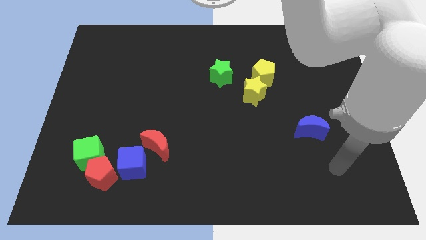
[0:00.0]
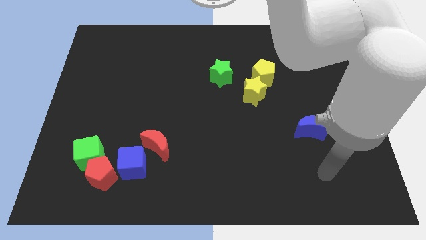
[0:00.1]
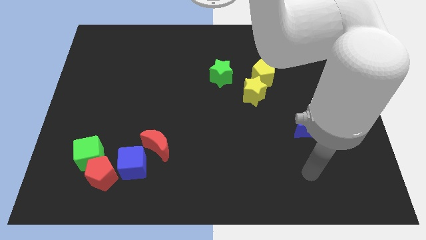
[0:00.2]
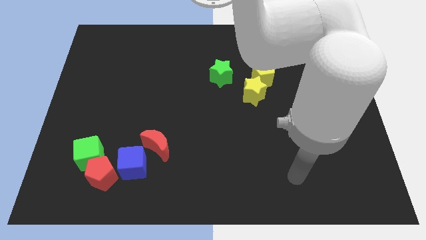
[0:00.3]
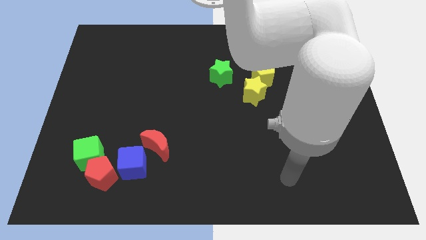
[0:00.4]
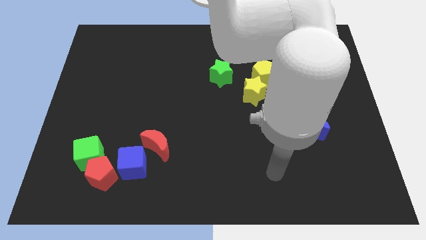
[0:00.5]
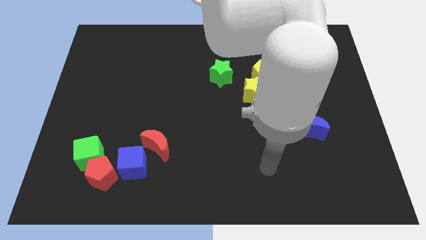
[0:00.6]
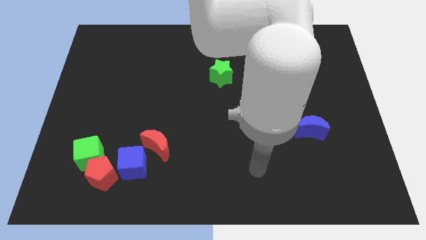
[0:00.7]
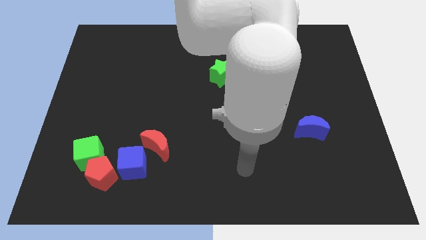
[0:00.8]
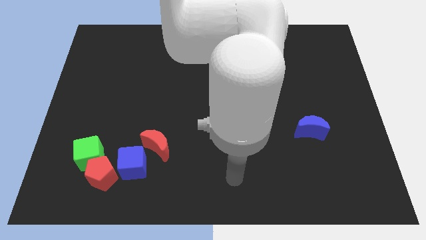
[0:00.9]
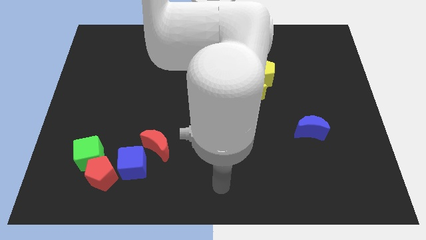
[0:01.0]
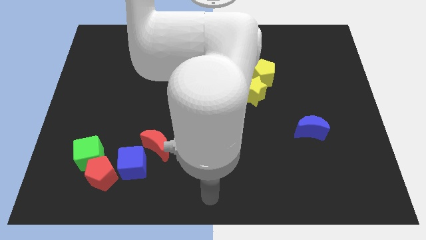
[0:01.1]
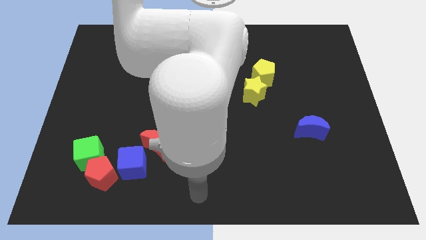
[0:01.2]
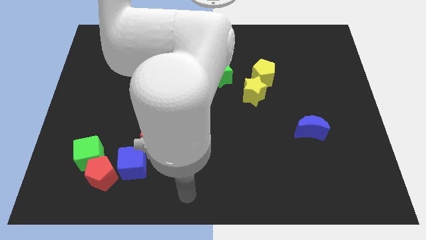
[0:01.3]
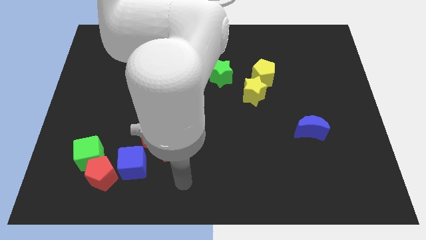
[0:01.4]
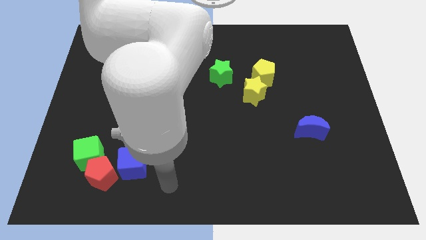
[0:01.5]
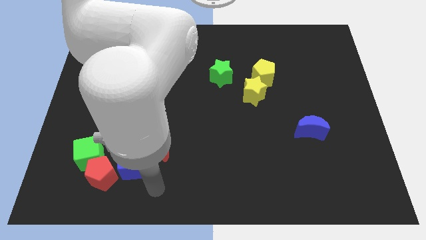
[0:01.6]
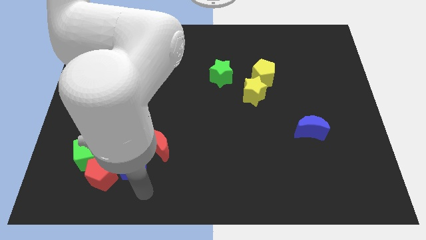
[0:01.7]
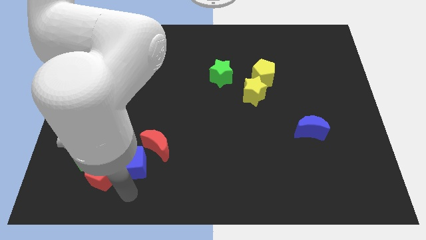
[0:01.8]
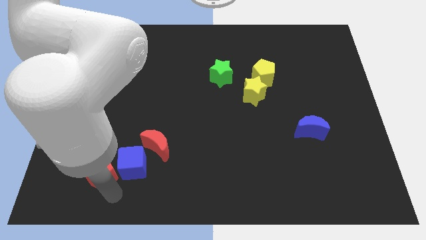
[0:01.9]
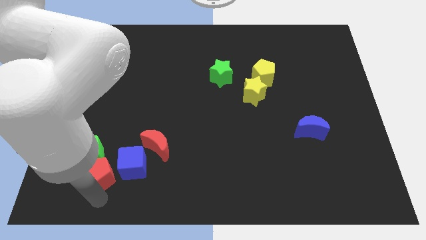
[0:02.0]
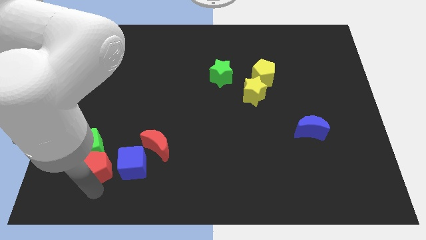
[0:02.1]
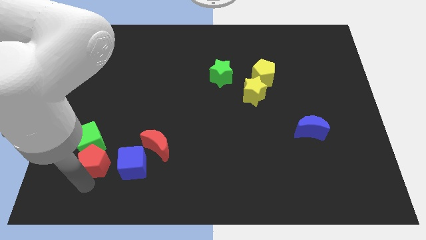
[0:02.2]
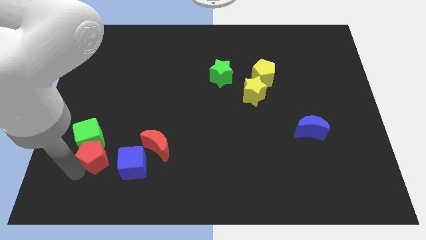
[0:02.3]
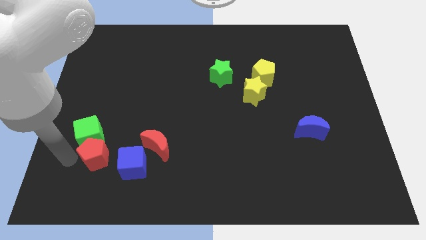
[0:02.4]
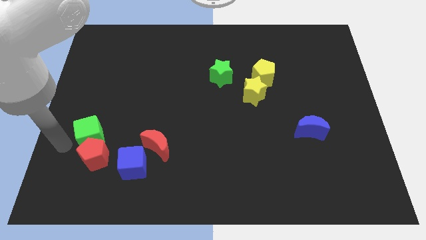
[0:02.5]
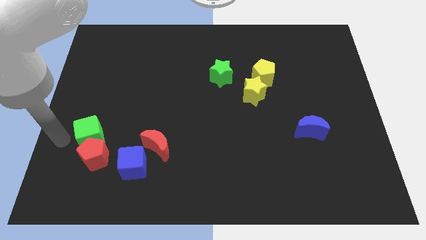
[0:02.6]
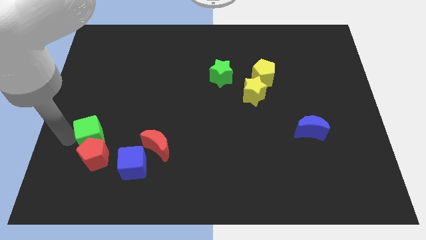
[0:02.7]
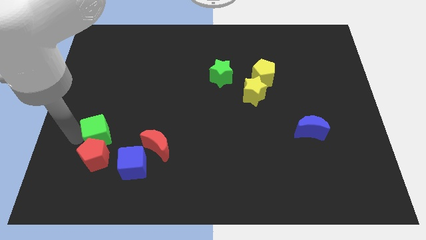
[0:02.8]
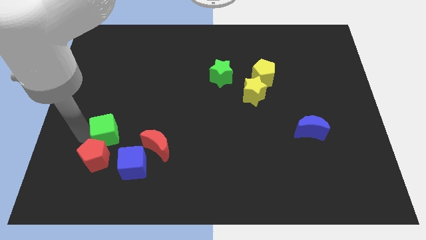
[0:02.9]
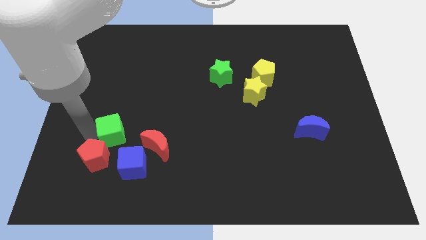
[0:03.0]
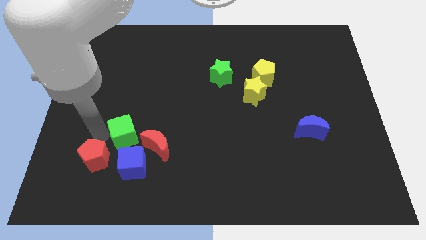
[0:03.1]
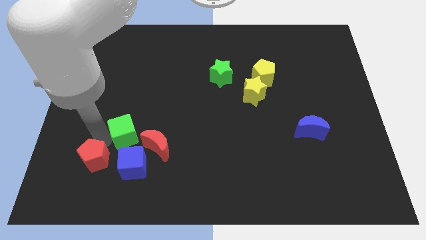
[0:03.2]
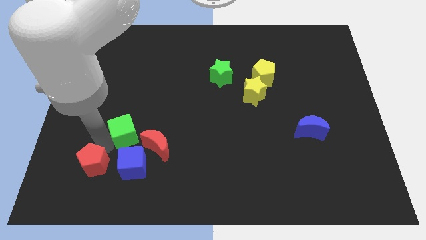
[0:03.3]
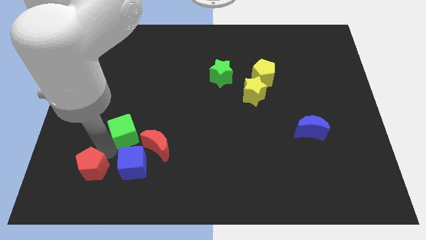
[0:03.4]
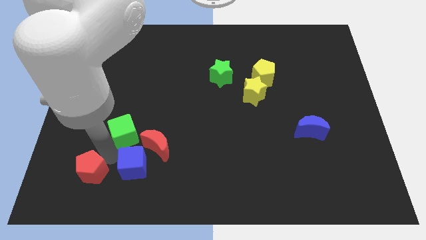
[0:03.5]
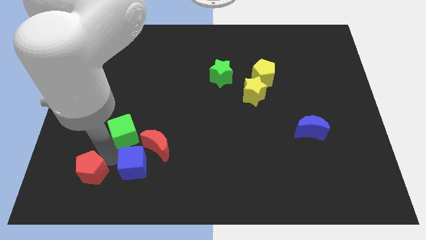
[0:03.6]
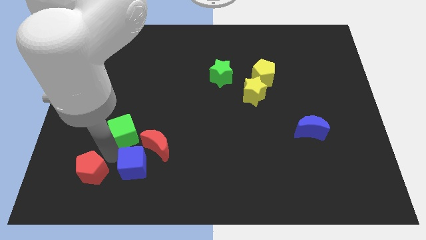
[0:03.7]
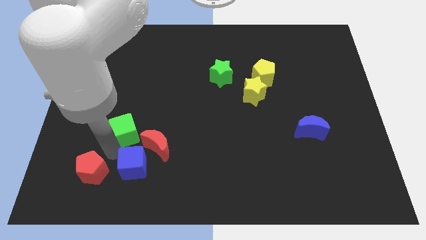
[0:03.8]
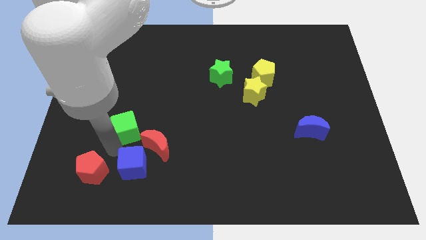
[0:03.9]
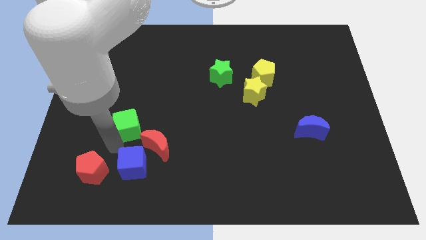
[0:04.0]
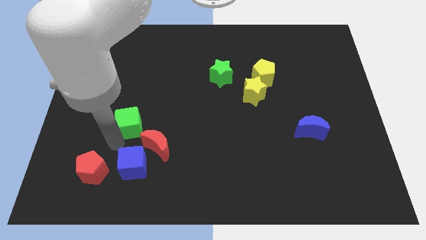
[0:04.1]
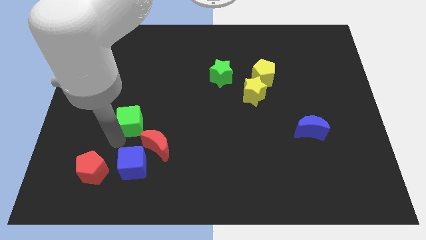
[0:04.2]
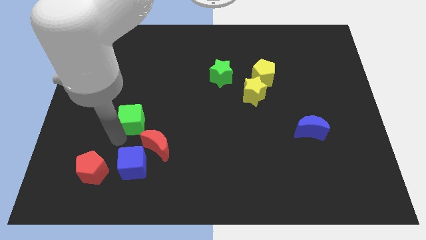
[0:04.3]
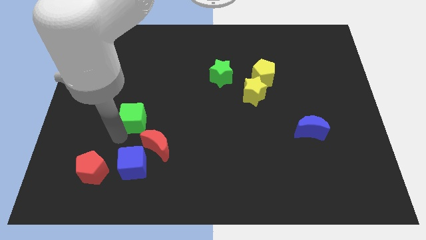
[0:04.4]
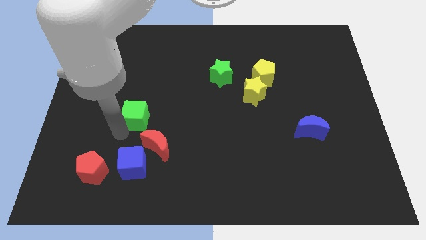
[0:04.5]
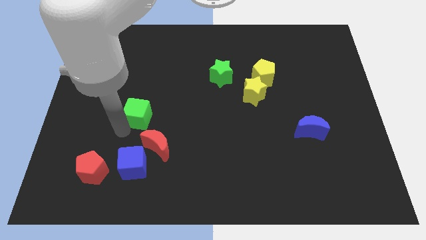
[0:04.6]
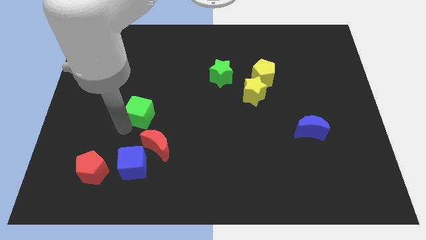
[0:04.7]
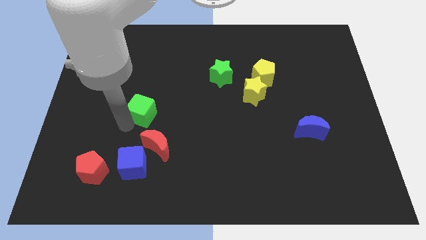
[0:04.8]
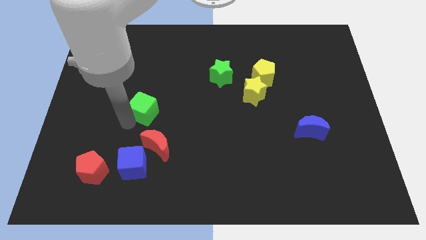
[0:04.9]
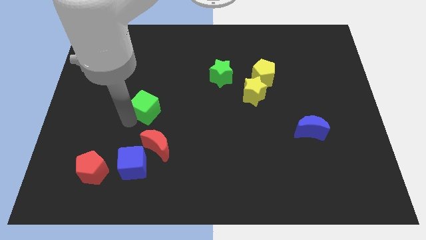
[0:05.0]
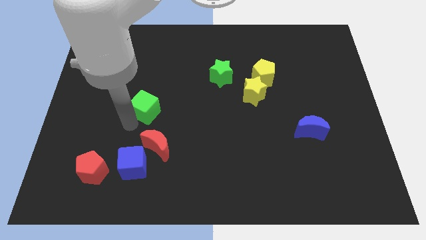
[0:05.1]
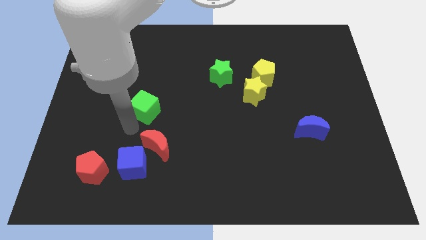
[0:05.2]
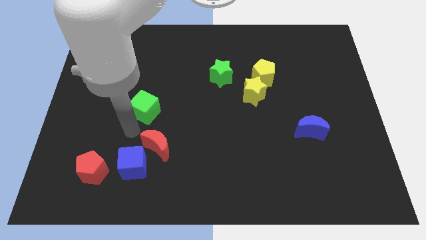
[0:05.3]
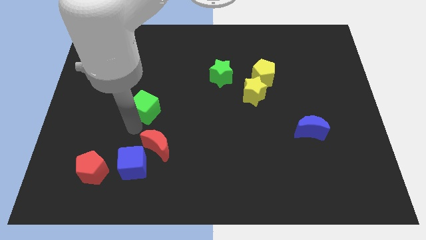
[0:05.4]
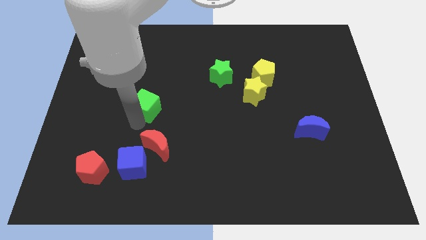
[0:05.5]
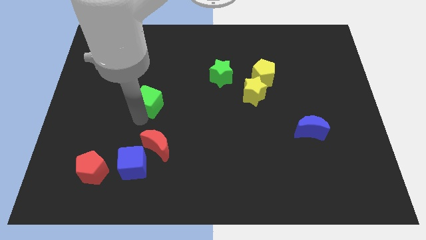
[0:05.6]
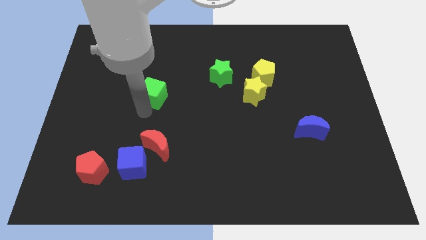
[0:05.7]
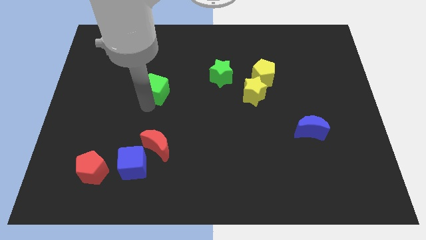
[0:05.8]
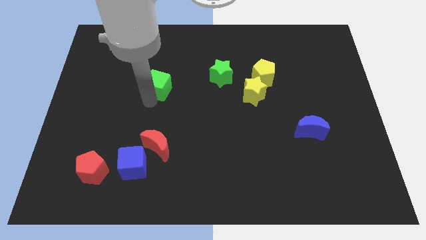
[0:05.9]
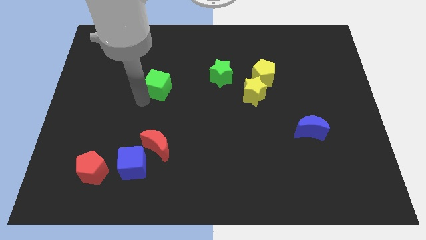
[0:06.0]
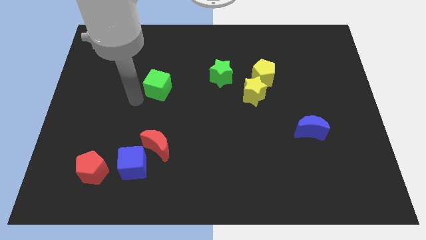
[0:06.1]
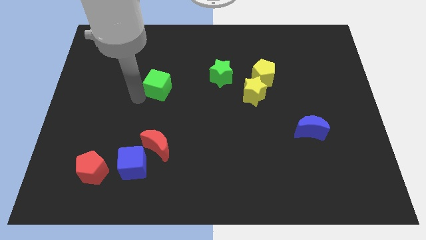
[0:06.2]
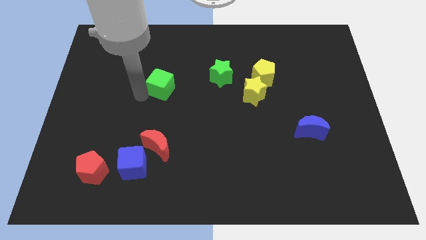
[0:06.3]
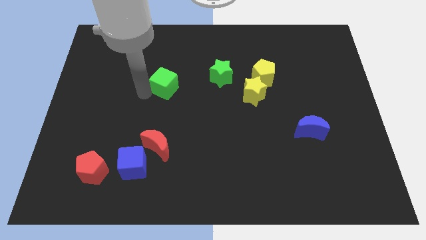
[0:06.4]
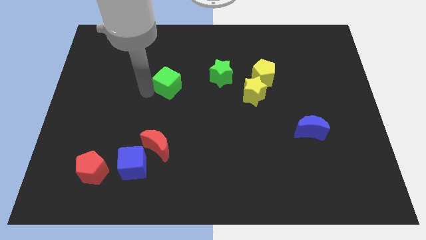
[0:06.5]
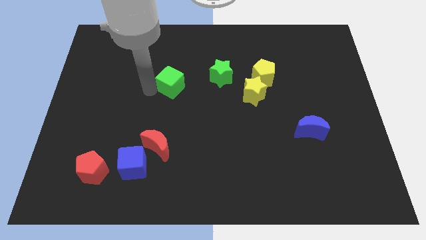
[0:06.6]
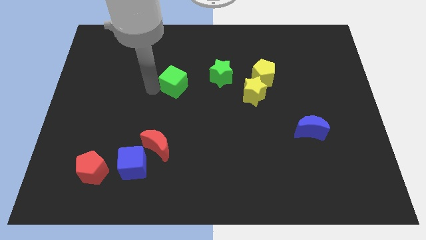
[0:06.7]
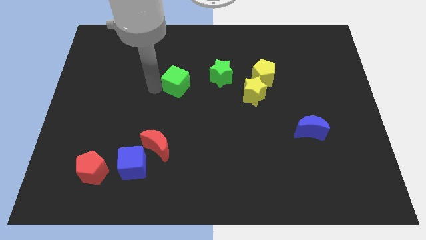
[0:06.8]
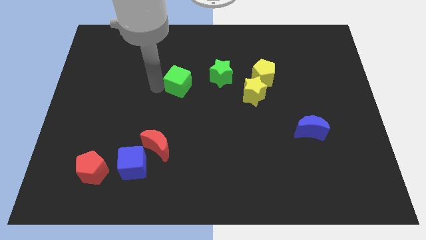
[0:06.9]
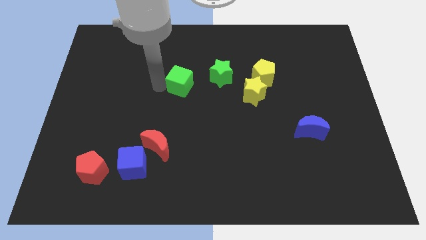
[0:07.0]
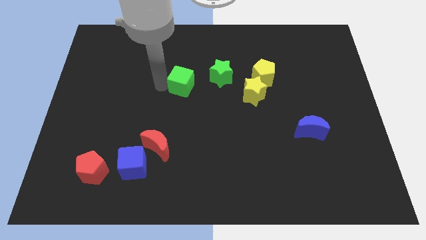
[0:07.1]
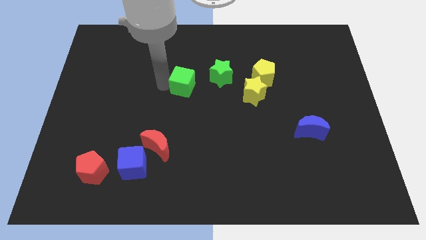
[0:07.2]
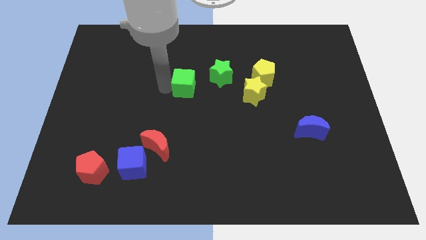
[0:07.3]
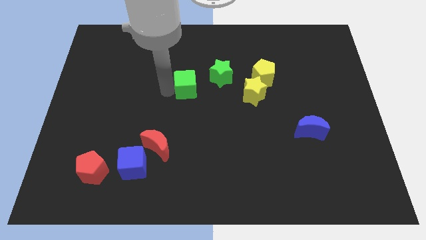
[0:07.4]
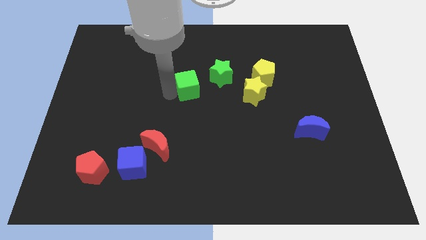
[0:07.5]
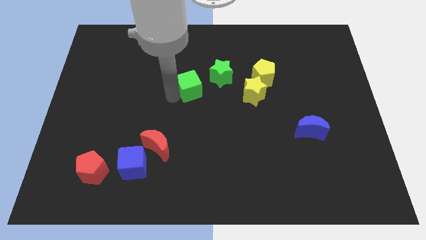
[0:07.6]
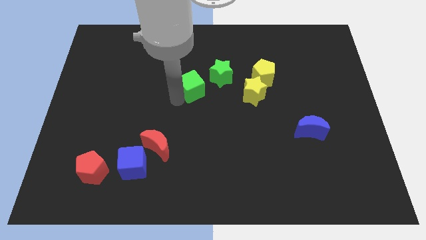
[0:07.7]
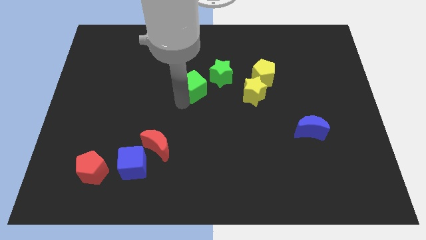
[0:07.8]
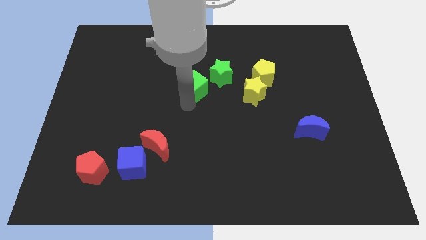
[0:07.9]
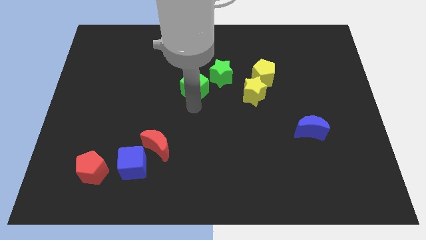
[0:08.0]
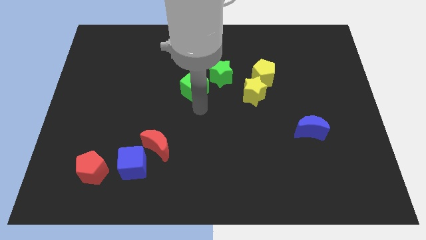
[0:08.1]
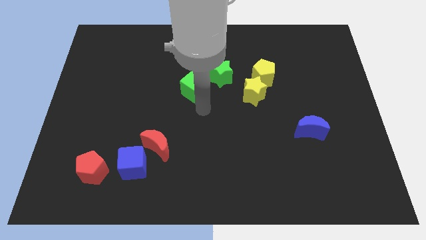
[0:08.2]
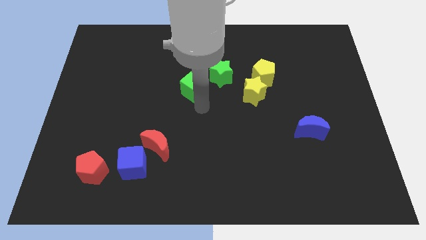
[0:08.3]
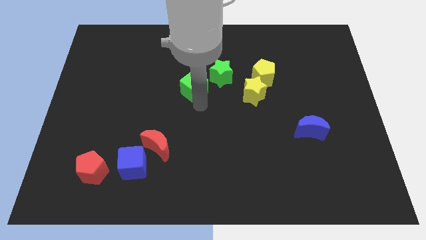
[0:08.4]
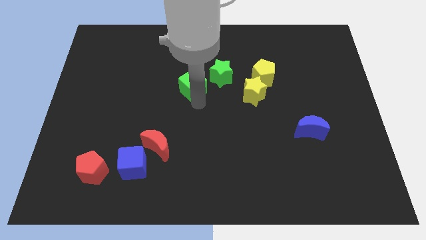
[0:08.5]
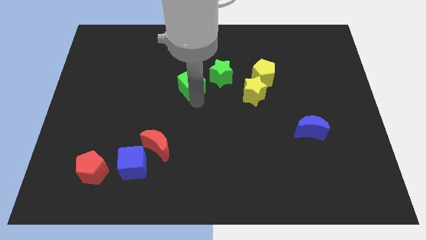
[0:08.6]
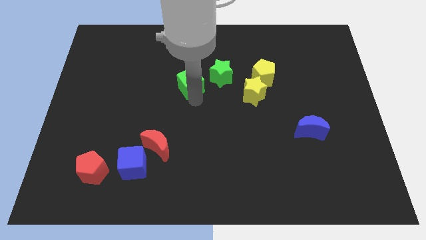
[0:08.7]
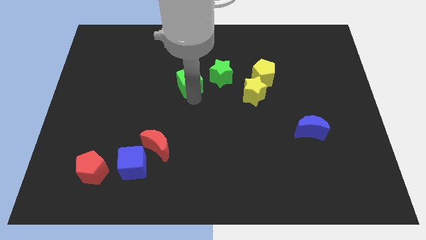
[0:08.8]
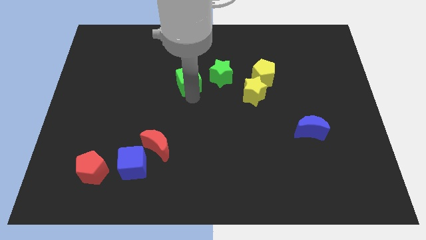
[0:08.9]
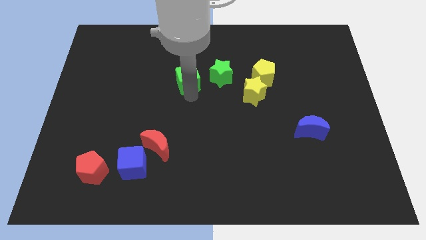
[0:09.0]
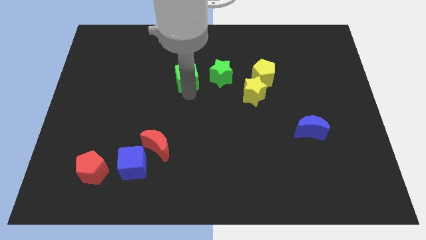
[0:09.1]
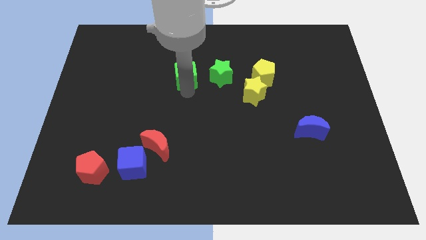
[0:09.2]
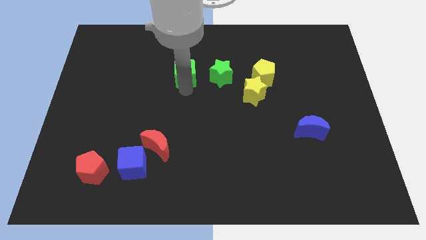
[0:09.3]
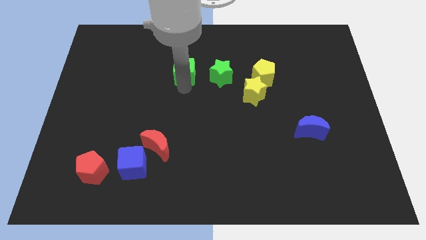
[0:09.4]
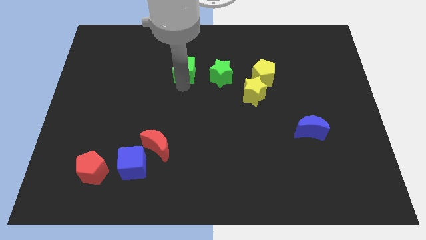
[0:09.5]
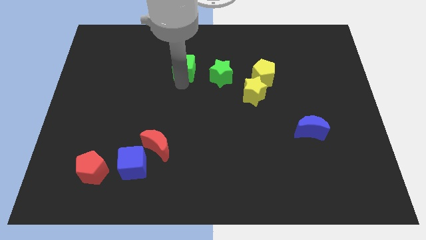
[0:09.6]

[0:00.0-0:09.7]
move the green cube to the top left side of the green star
